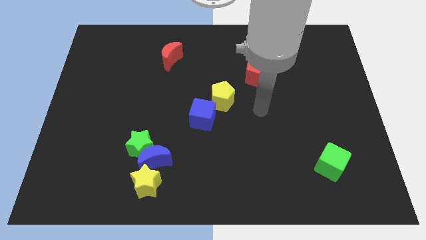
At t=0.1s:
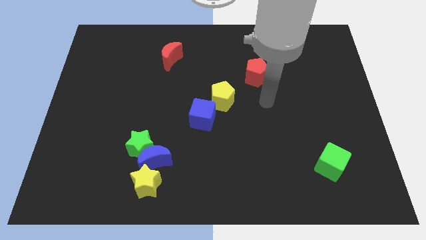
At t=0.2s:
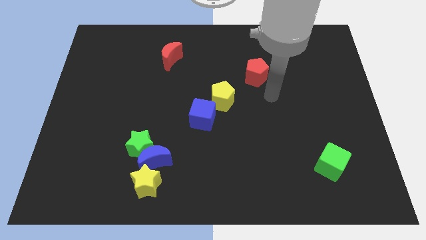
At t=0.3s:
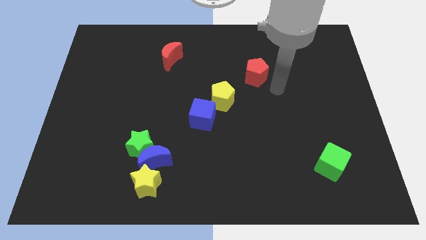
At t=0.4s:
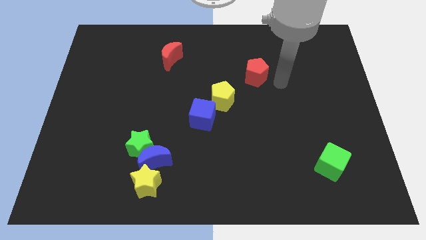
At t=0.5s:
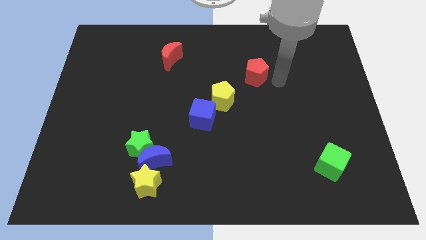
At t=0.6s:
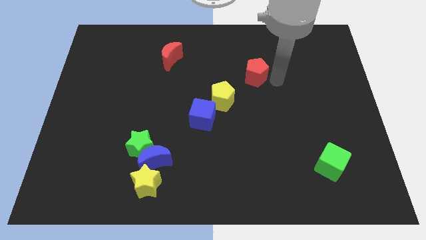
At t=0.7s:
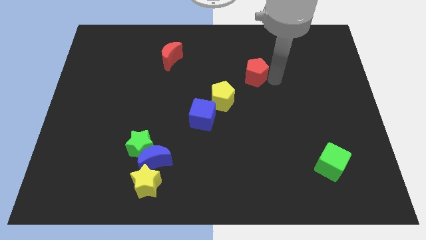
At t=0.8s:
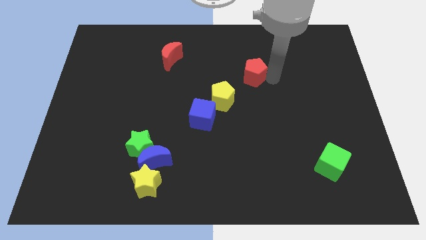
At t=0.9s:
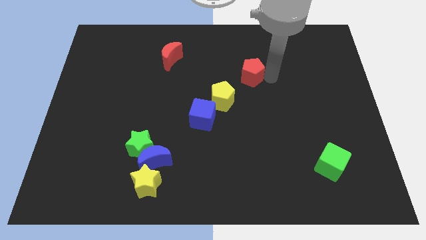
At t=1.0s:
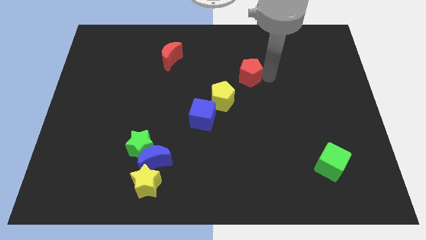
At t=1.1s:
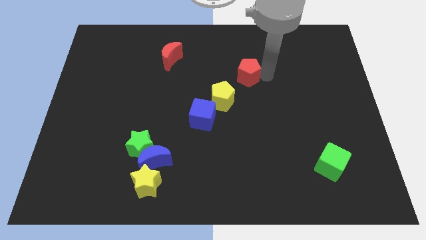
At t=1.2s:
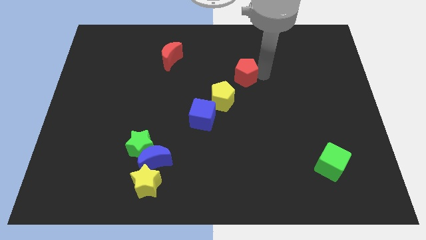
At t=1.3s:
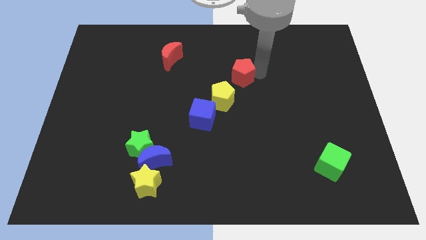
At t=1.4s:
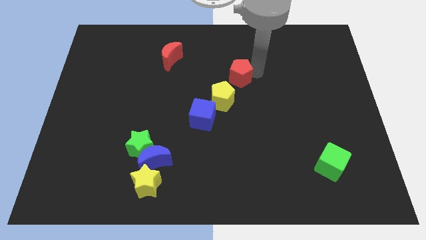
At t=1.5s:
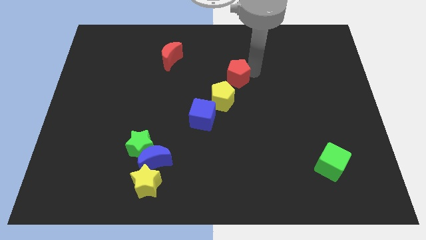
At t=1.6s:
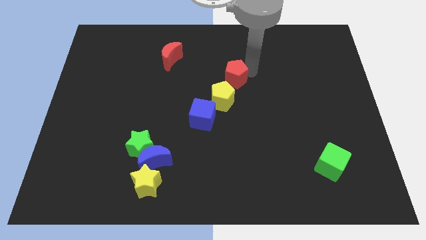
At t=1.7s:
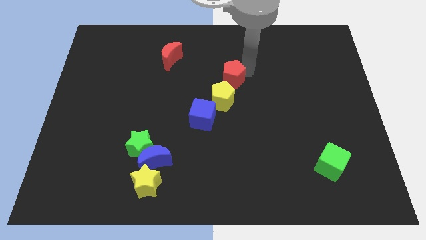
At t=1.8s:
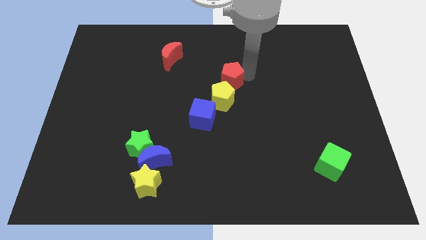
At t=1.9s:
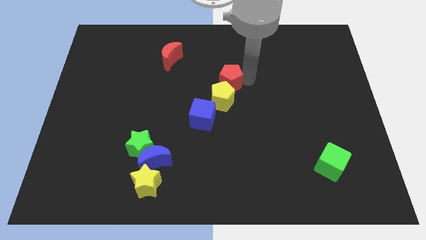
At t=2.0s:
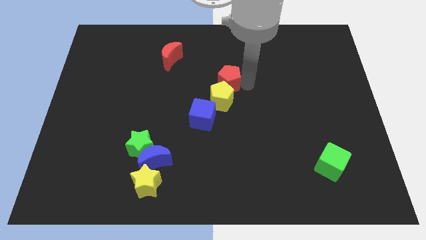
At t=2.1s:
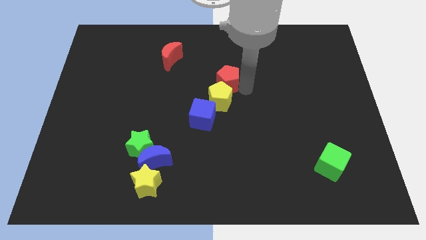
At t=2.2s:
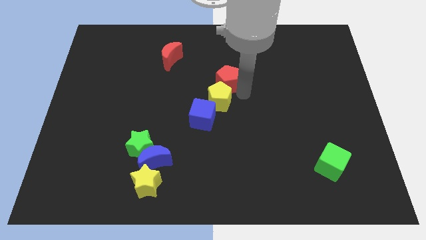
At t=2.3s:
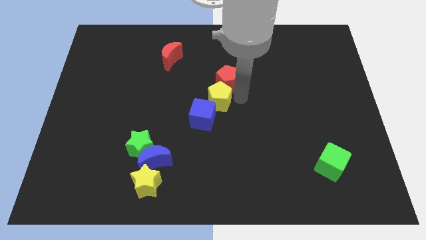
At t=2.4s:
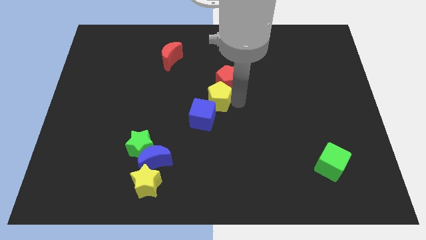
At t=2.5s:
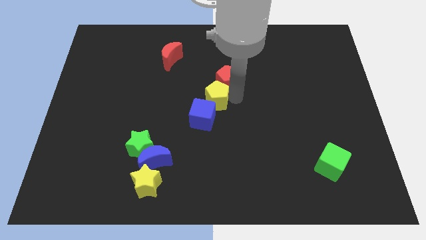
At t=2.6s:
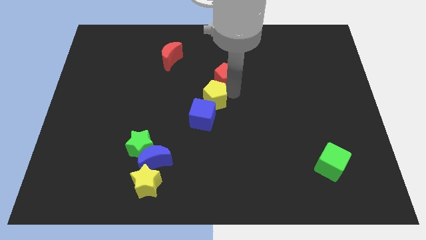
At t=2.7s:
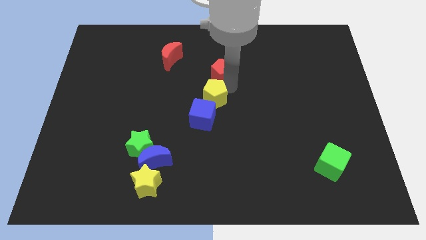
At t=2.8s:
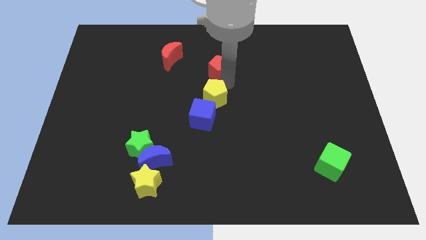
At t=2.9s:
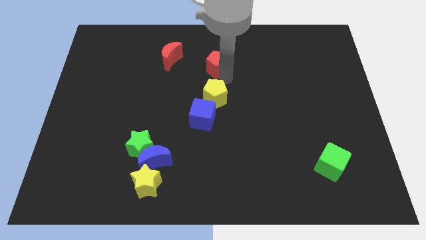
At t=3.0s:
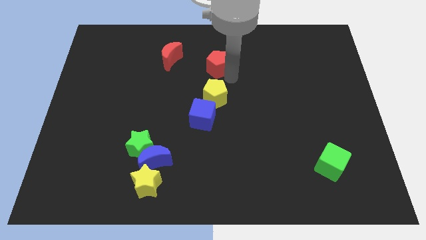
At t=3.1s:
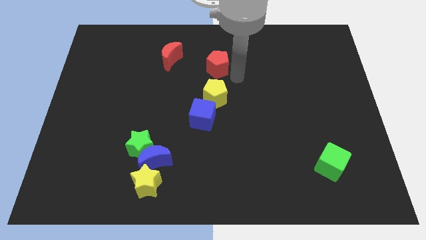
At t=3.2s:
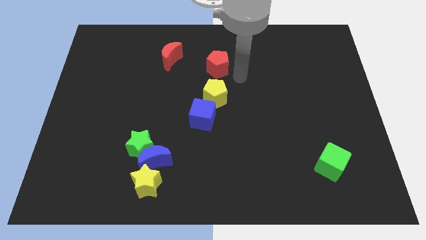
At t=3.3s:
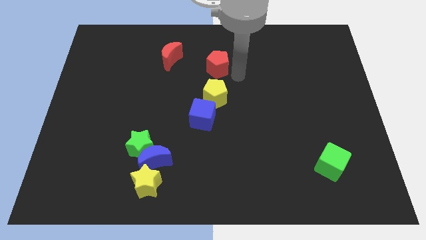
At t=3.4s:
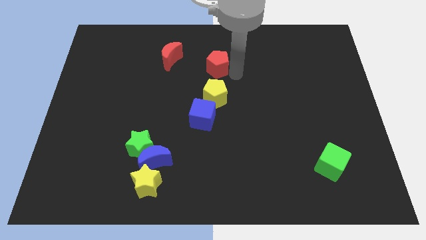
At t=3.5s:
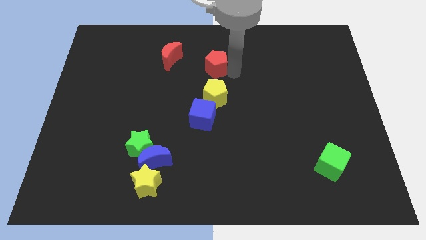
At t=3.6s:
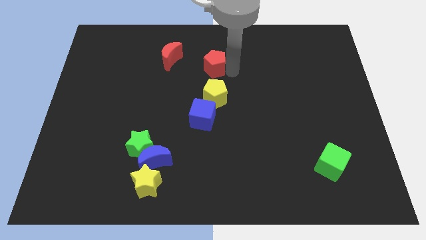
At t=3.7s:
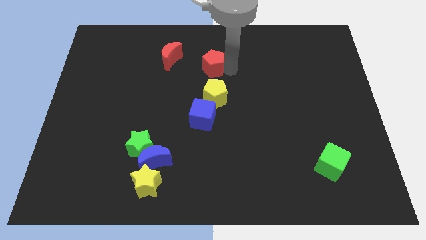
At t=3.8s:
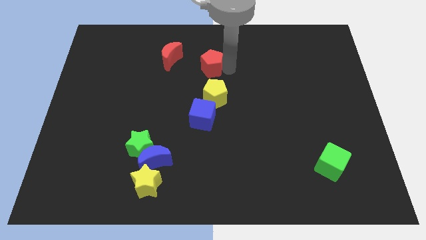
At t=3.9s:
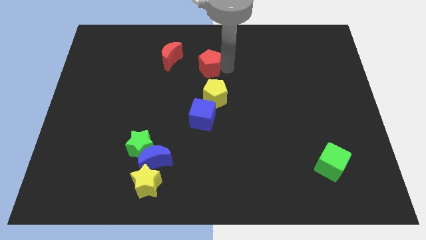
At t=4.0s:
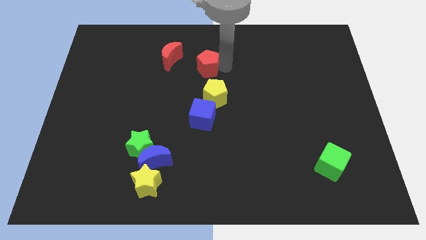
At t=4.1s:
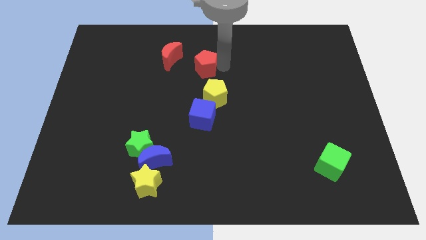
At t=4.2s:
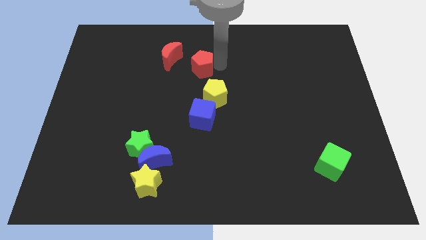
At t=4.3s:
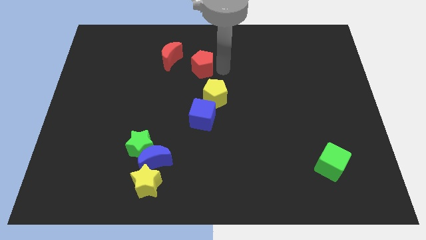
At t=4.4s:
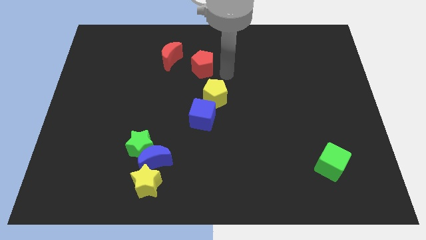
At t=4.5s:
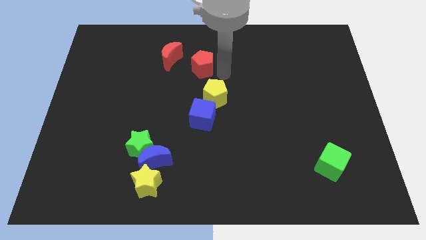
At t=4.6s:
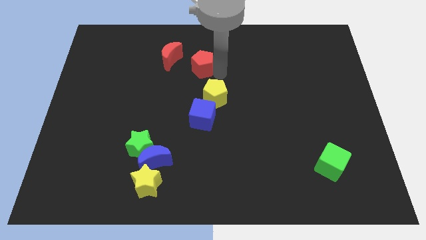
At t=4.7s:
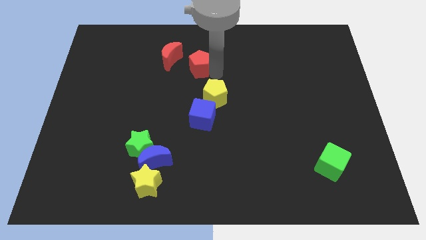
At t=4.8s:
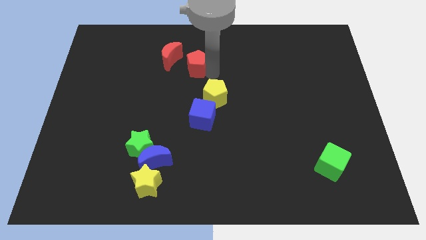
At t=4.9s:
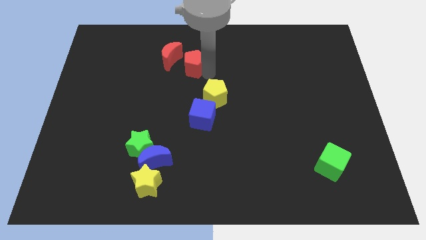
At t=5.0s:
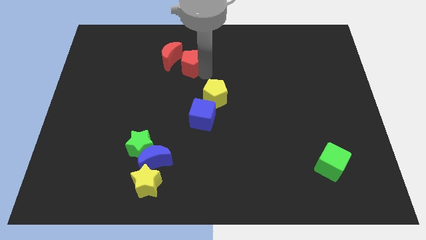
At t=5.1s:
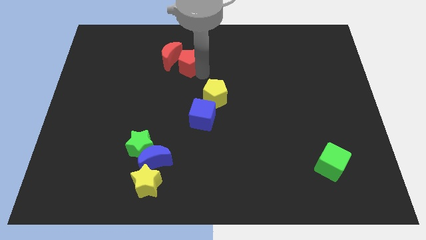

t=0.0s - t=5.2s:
move the red pentagon to the red moon

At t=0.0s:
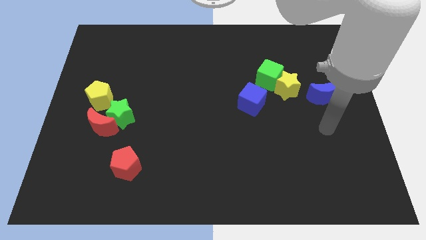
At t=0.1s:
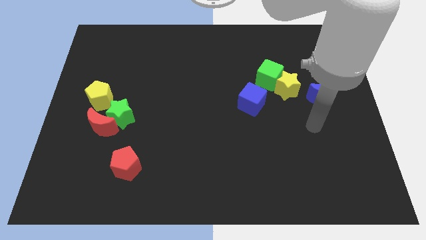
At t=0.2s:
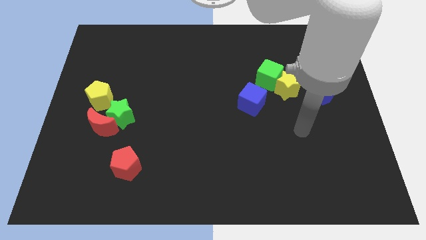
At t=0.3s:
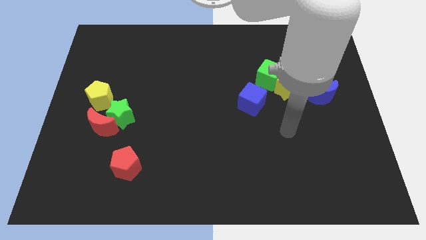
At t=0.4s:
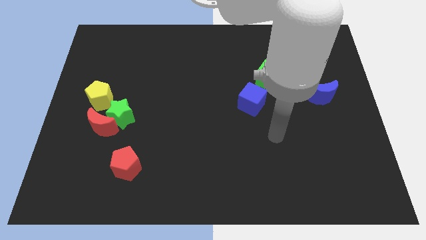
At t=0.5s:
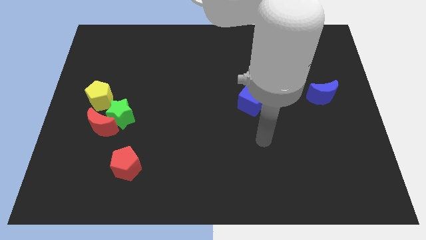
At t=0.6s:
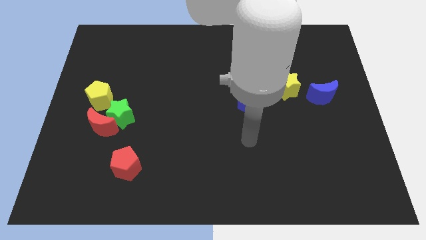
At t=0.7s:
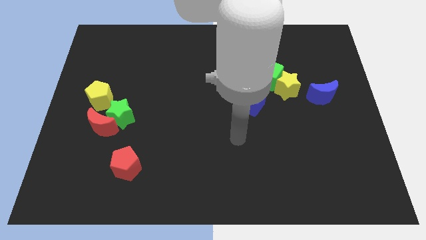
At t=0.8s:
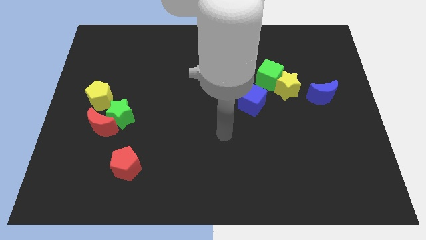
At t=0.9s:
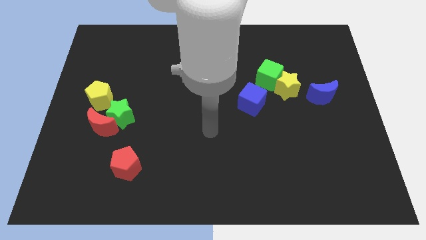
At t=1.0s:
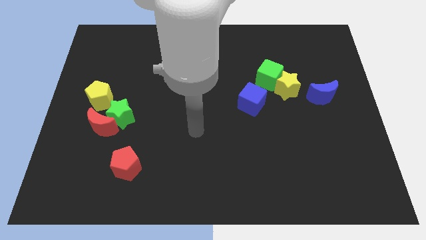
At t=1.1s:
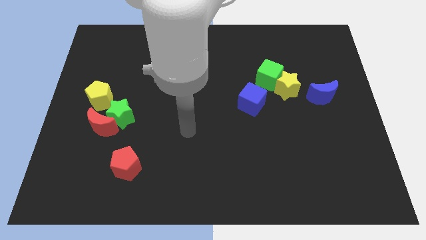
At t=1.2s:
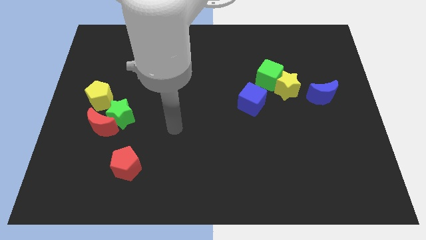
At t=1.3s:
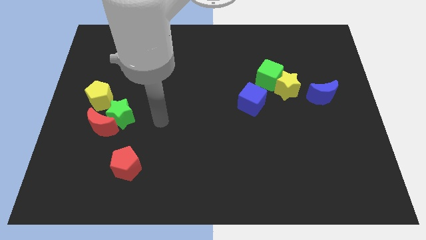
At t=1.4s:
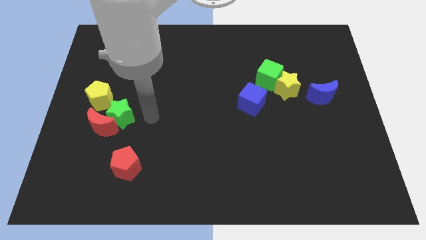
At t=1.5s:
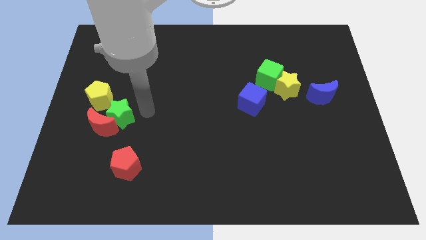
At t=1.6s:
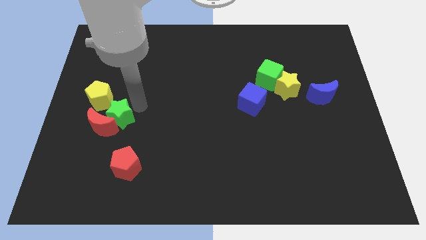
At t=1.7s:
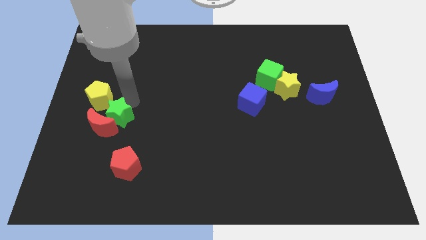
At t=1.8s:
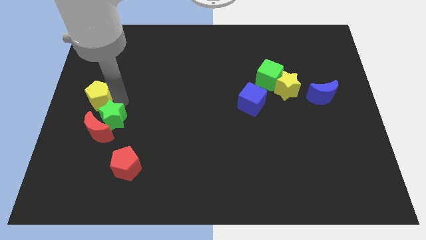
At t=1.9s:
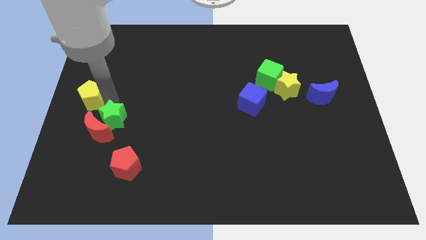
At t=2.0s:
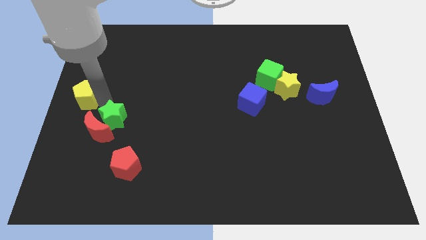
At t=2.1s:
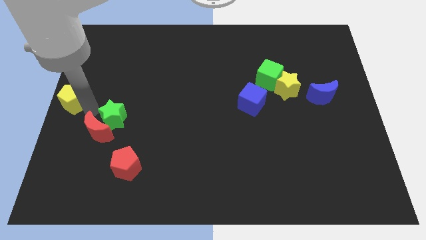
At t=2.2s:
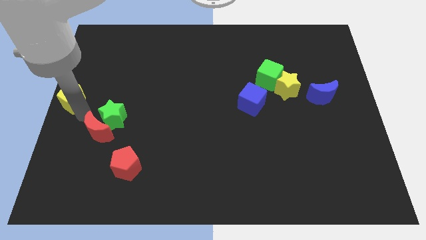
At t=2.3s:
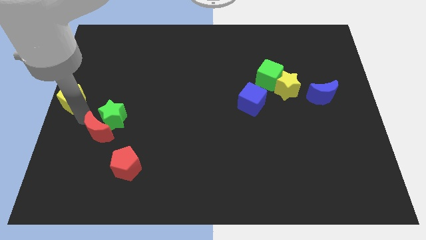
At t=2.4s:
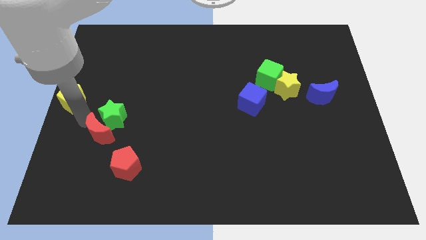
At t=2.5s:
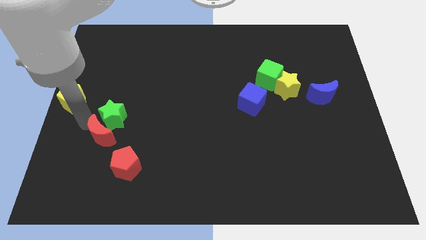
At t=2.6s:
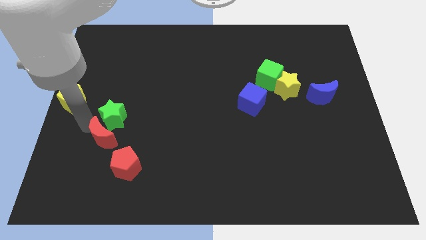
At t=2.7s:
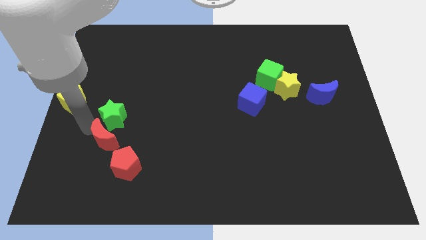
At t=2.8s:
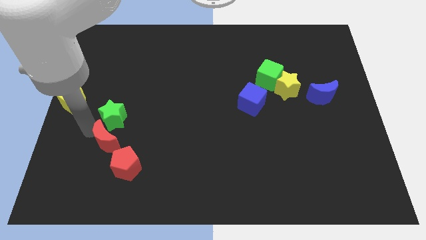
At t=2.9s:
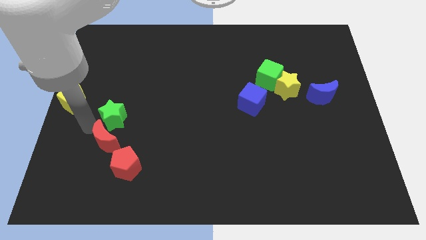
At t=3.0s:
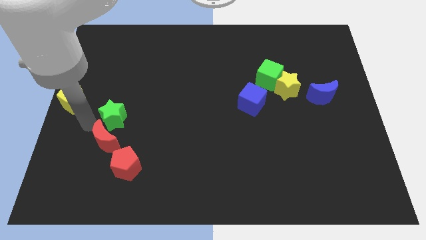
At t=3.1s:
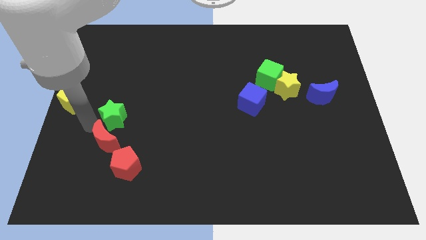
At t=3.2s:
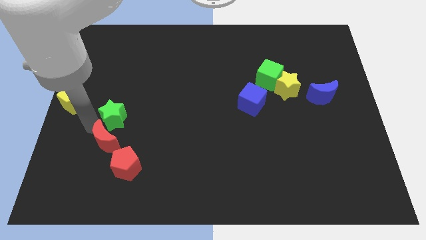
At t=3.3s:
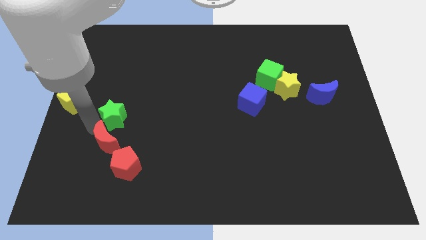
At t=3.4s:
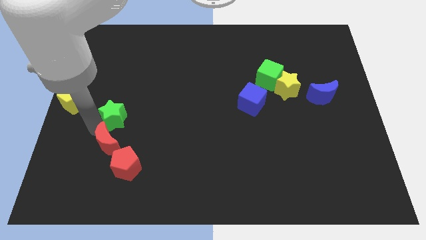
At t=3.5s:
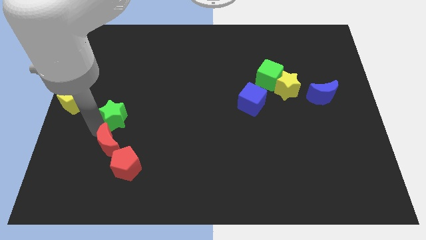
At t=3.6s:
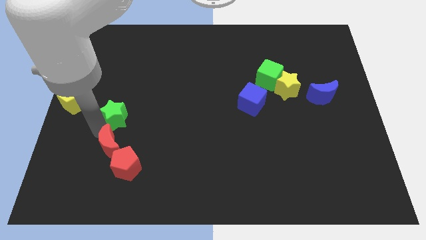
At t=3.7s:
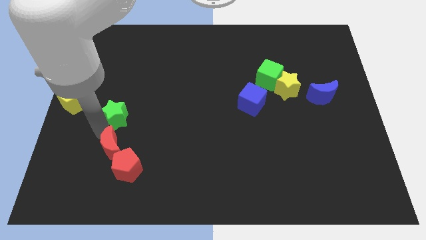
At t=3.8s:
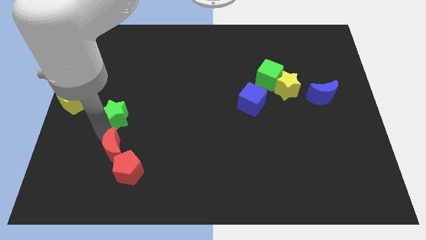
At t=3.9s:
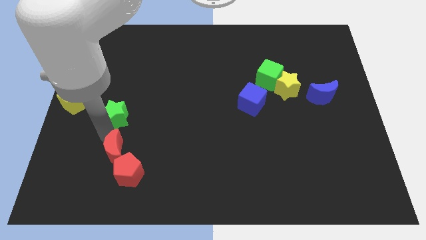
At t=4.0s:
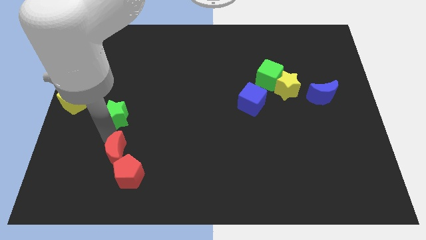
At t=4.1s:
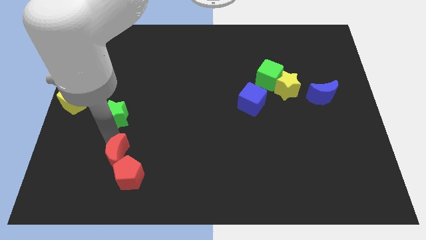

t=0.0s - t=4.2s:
put the red moon close to the red pentagon
